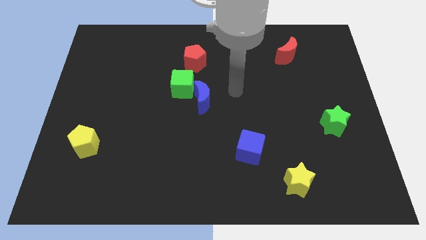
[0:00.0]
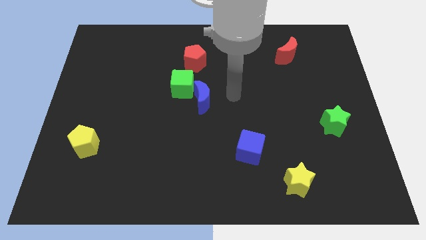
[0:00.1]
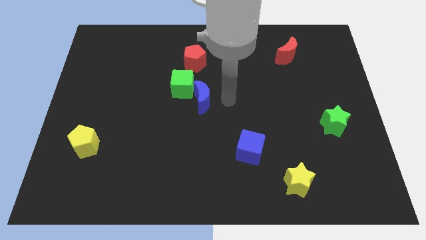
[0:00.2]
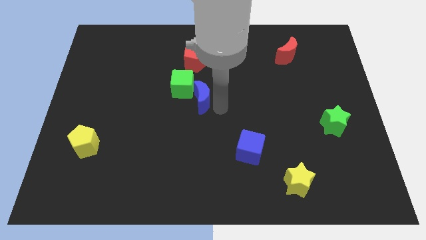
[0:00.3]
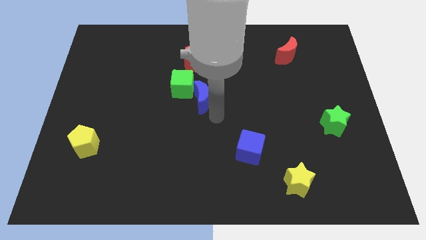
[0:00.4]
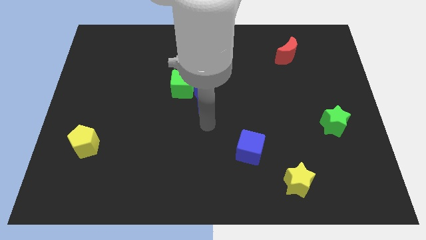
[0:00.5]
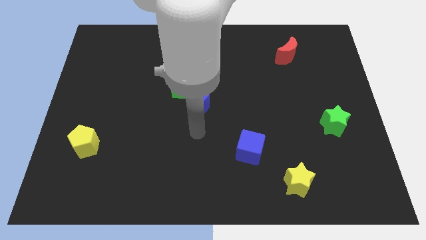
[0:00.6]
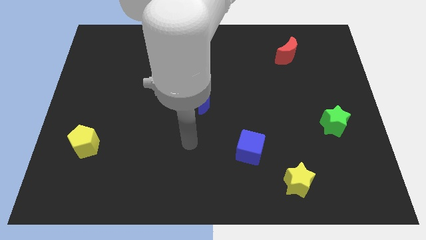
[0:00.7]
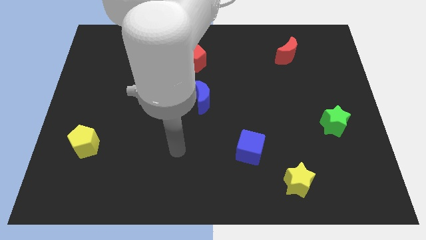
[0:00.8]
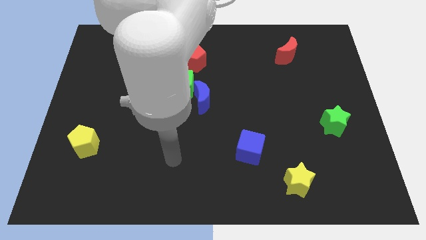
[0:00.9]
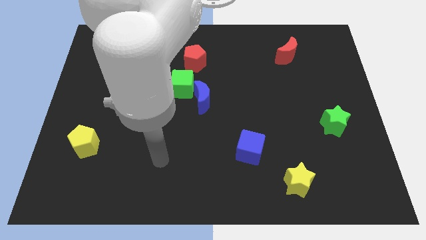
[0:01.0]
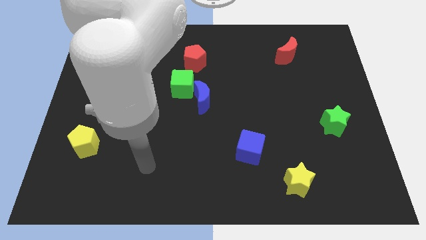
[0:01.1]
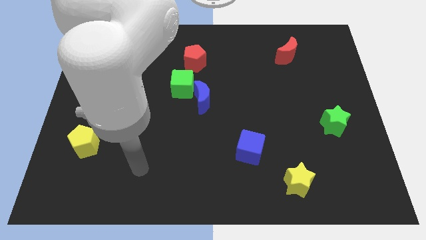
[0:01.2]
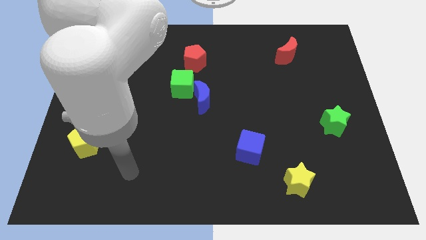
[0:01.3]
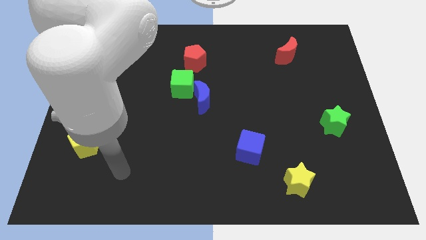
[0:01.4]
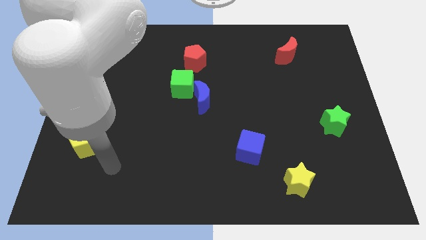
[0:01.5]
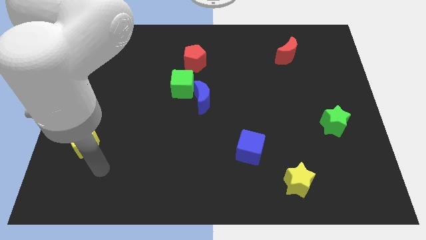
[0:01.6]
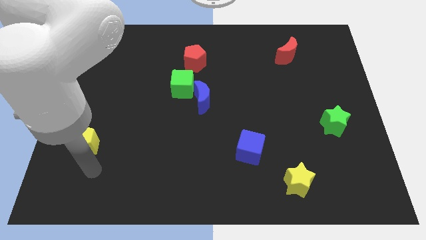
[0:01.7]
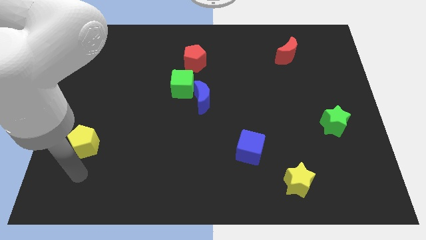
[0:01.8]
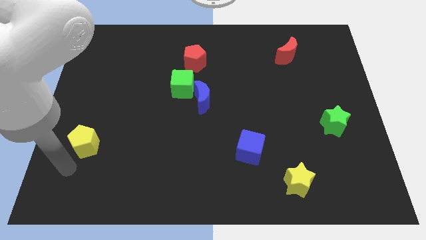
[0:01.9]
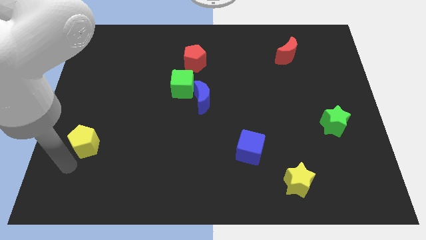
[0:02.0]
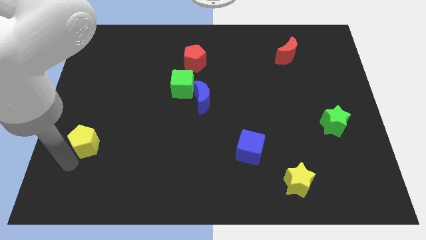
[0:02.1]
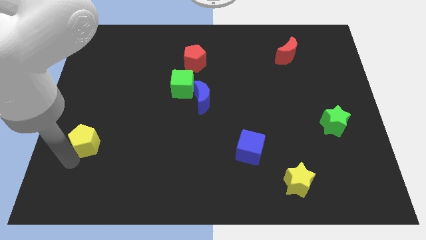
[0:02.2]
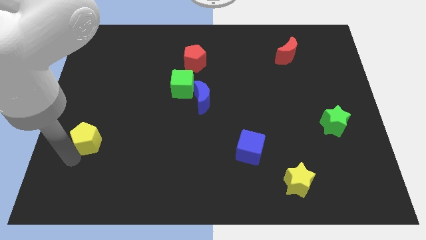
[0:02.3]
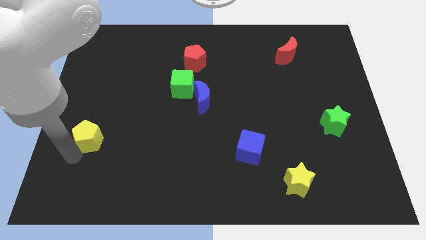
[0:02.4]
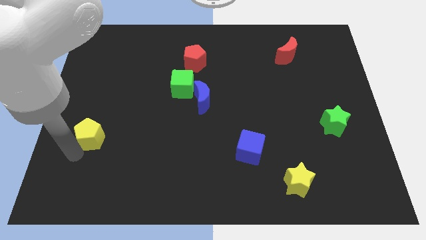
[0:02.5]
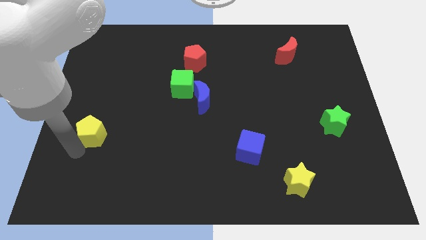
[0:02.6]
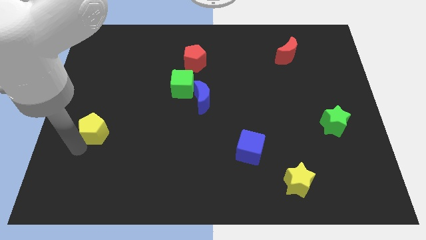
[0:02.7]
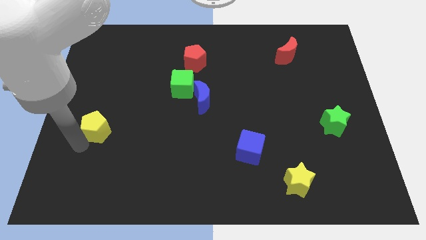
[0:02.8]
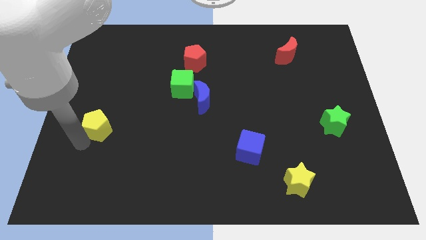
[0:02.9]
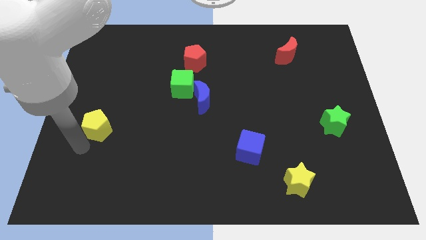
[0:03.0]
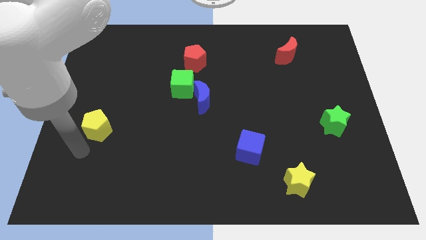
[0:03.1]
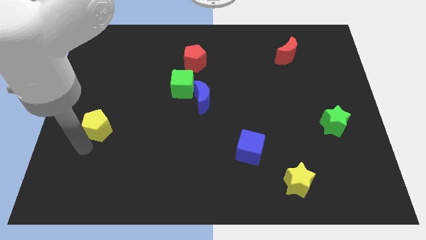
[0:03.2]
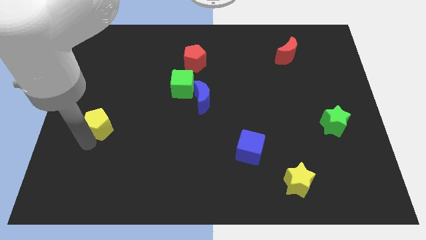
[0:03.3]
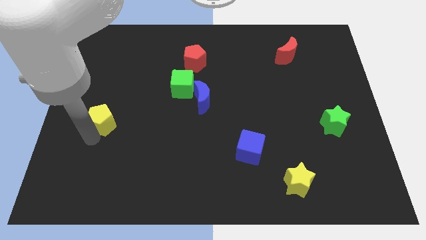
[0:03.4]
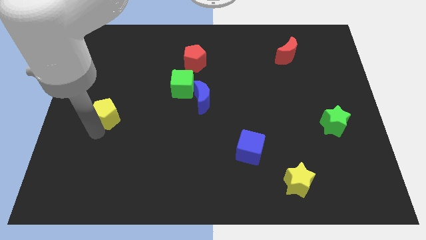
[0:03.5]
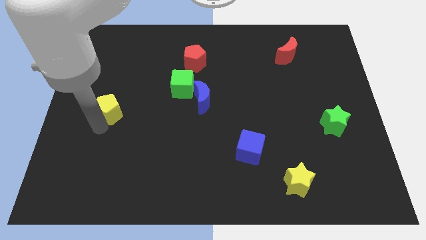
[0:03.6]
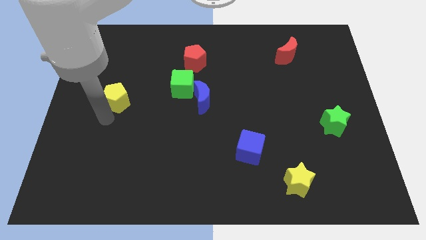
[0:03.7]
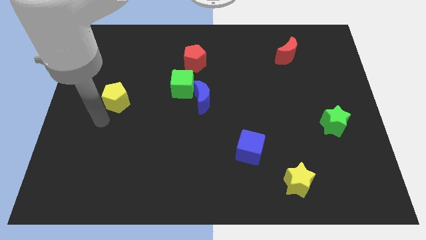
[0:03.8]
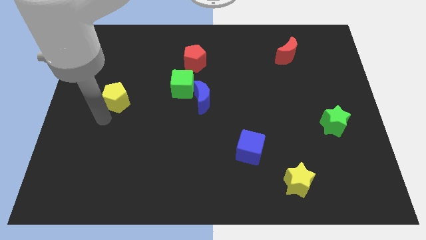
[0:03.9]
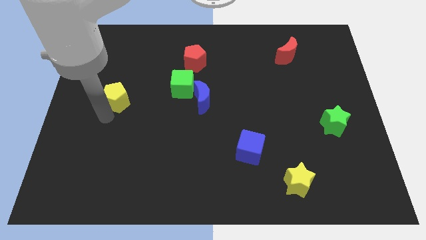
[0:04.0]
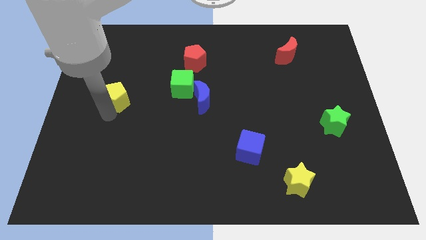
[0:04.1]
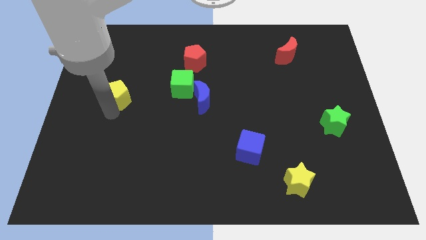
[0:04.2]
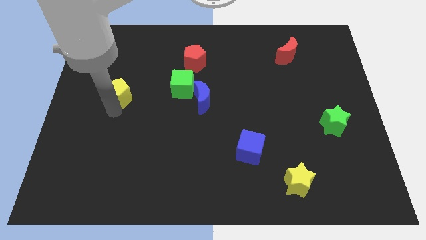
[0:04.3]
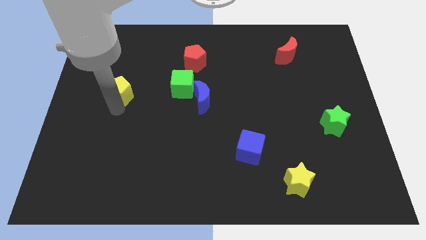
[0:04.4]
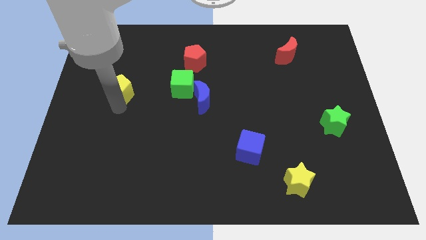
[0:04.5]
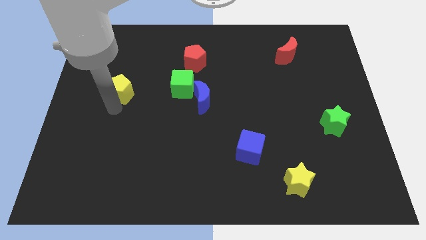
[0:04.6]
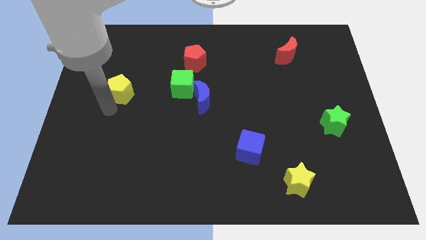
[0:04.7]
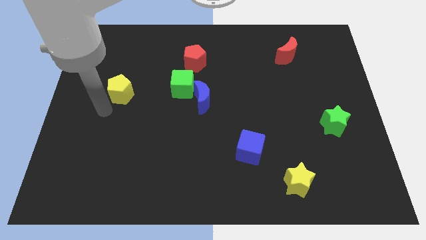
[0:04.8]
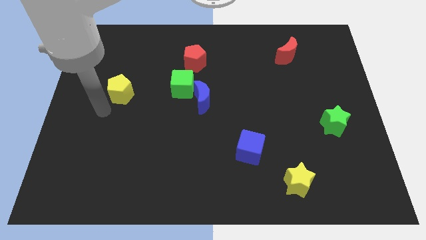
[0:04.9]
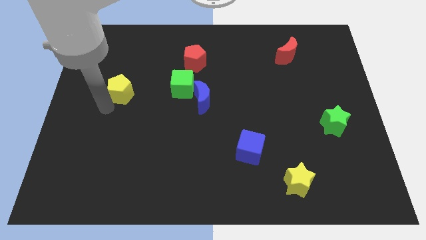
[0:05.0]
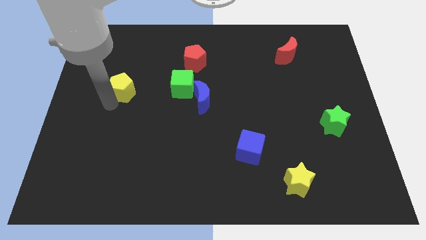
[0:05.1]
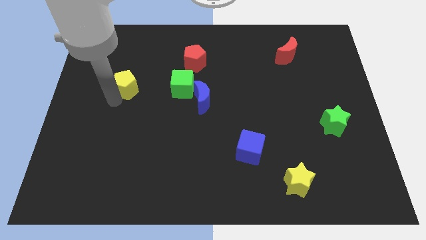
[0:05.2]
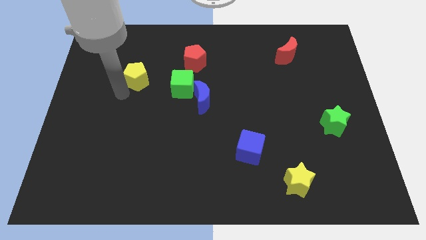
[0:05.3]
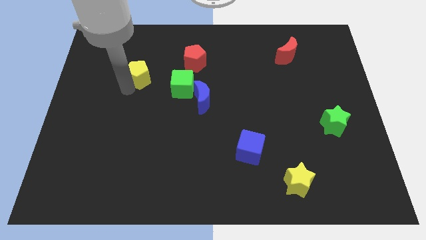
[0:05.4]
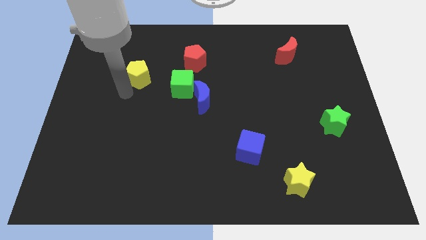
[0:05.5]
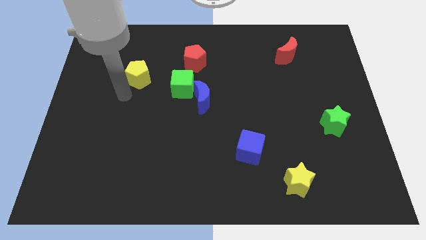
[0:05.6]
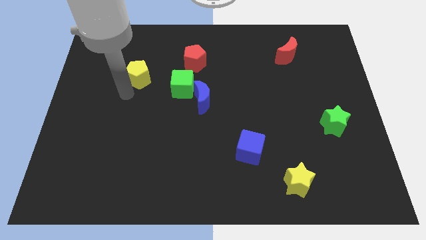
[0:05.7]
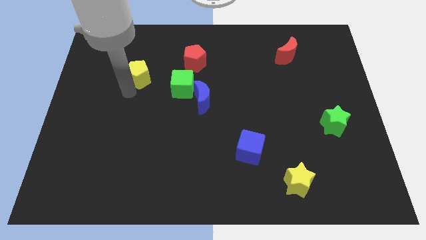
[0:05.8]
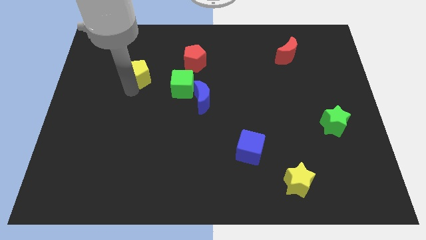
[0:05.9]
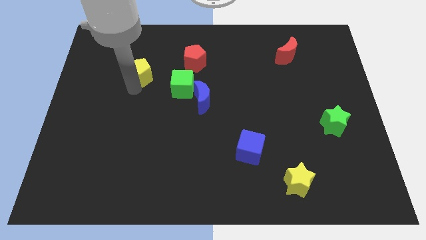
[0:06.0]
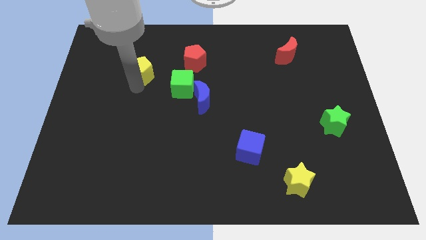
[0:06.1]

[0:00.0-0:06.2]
put the yellow pentagon to the left of the red pentagon

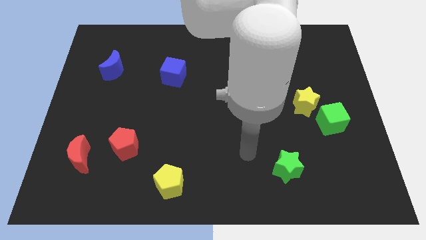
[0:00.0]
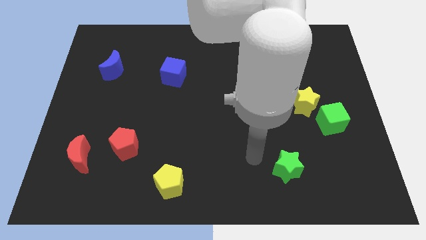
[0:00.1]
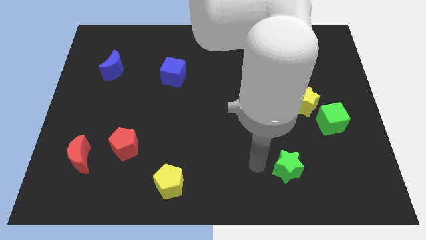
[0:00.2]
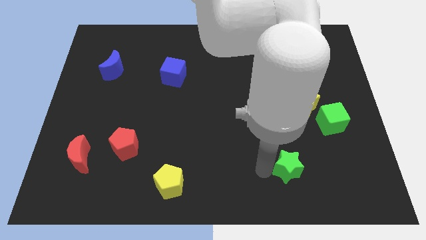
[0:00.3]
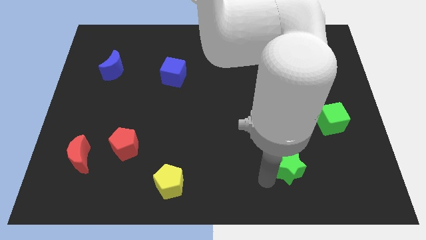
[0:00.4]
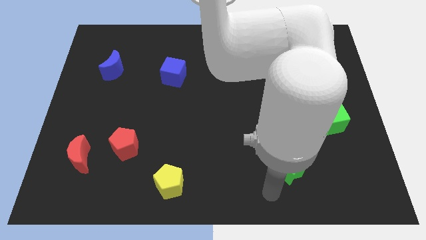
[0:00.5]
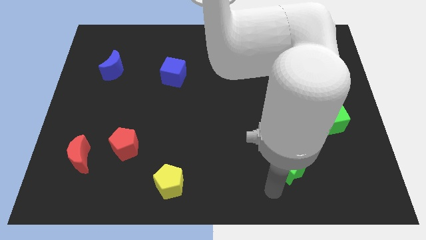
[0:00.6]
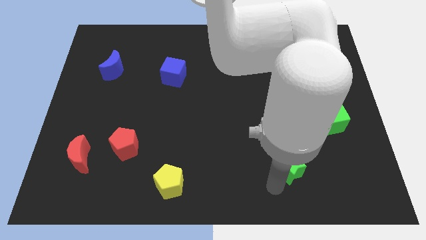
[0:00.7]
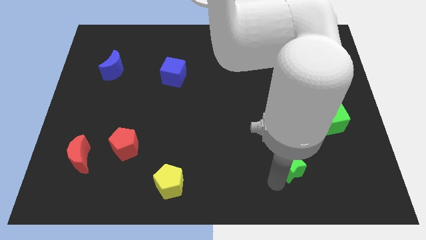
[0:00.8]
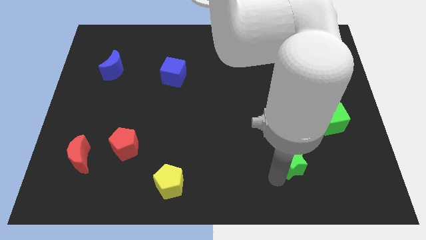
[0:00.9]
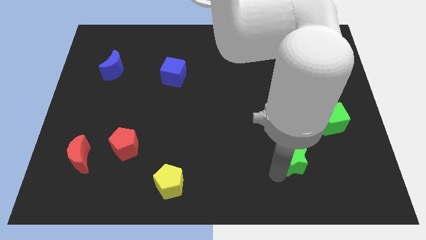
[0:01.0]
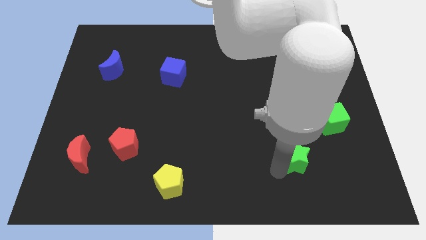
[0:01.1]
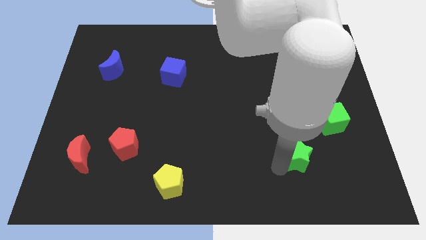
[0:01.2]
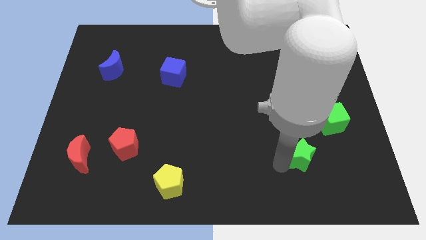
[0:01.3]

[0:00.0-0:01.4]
slide the green star to the bottom left side of the green cube
